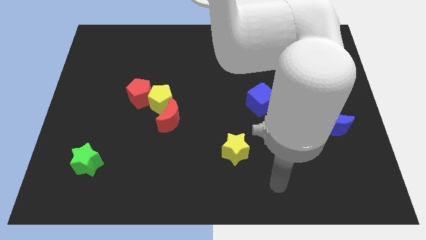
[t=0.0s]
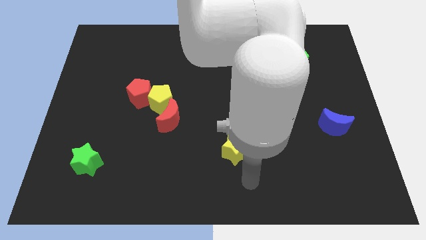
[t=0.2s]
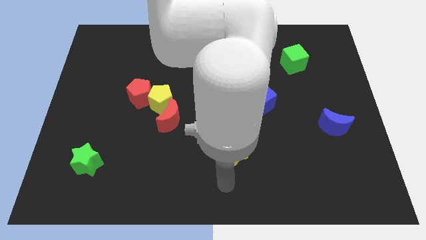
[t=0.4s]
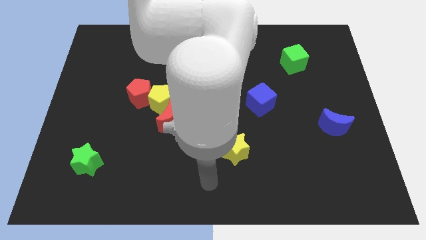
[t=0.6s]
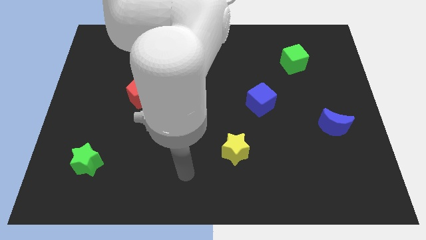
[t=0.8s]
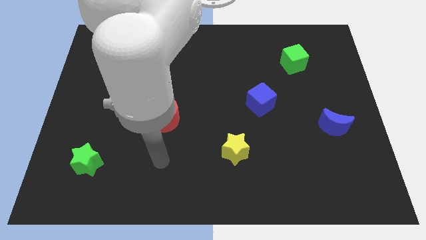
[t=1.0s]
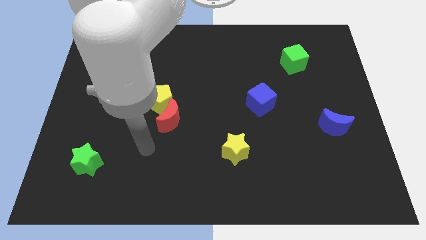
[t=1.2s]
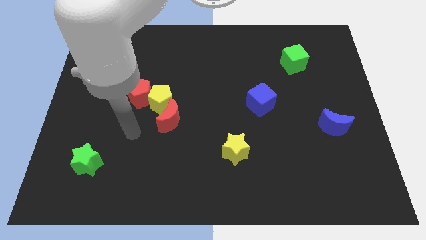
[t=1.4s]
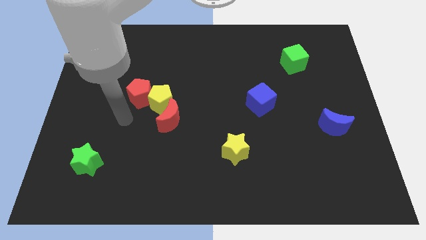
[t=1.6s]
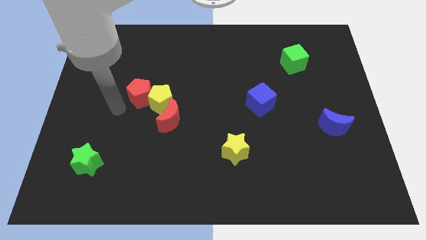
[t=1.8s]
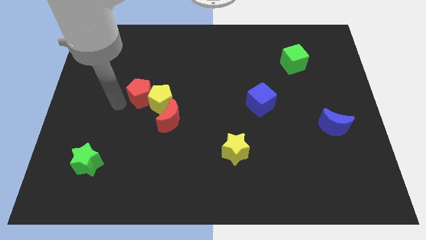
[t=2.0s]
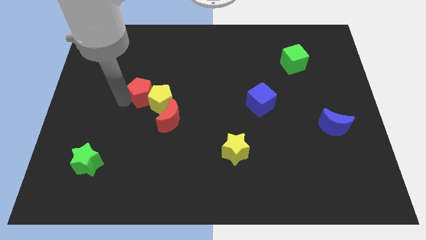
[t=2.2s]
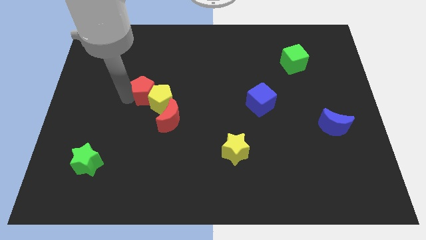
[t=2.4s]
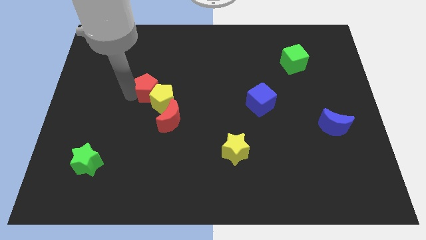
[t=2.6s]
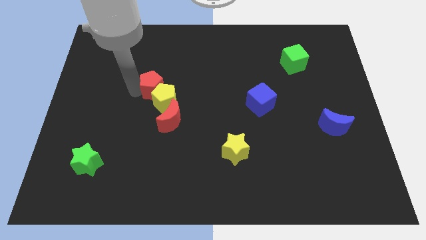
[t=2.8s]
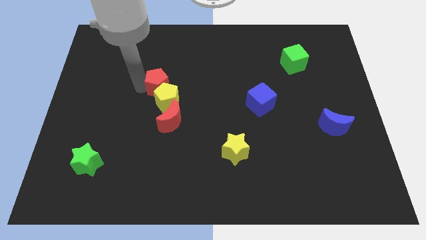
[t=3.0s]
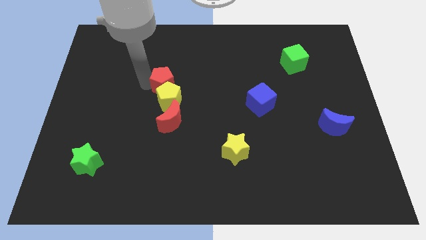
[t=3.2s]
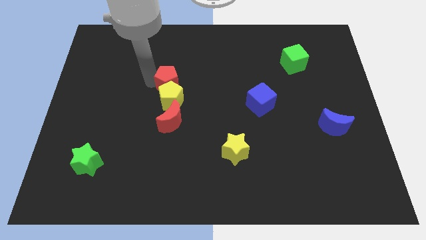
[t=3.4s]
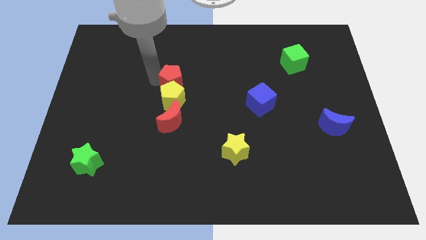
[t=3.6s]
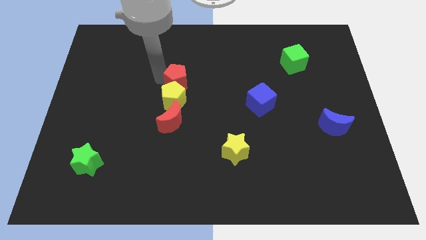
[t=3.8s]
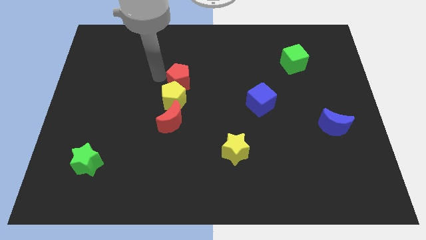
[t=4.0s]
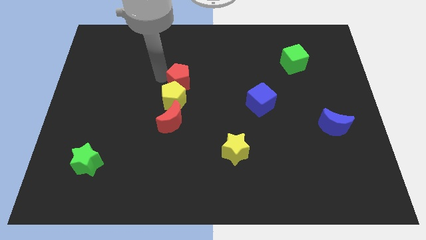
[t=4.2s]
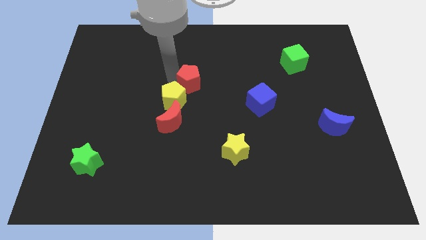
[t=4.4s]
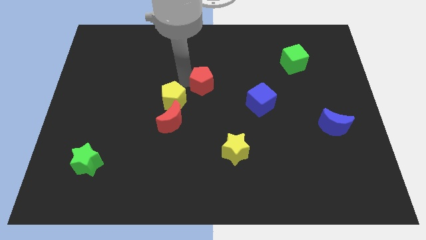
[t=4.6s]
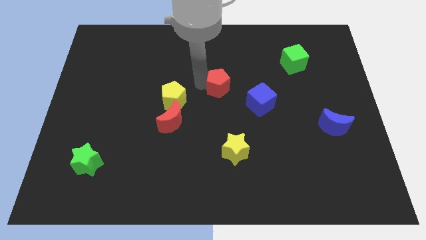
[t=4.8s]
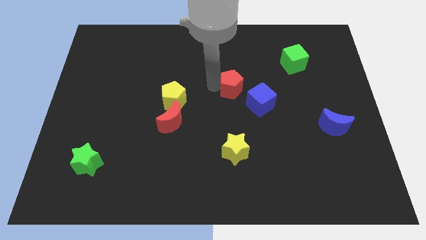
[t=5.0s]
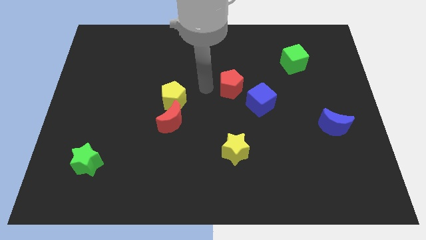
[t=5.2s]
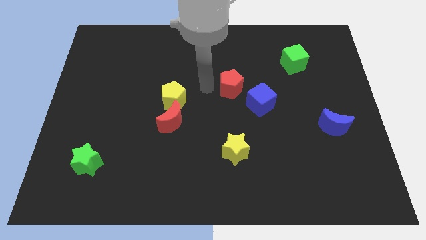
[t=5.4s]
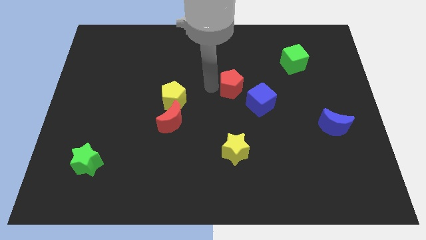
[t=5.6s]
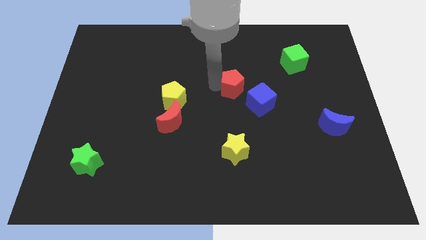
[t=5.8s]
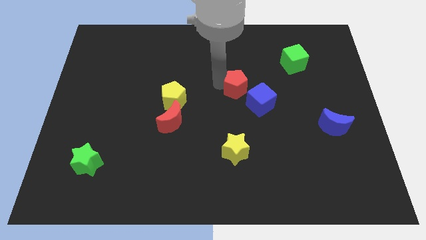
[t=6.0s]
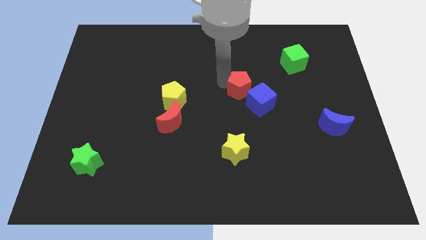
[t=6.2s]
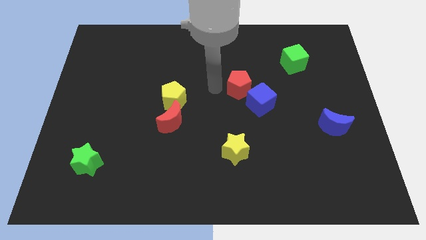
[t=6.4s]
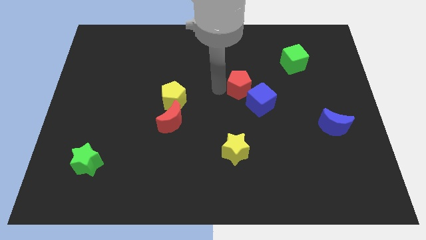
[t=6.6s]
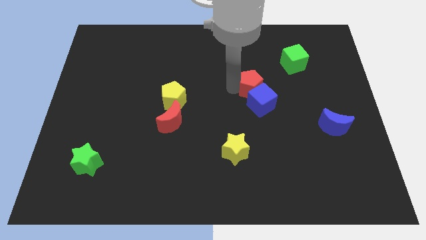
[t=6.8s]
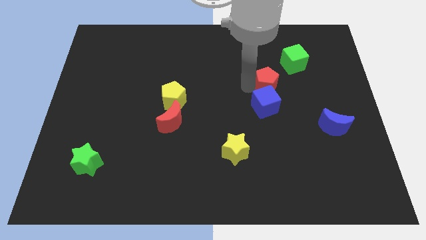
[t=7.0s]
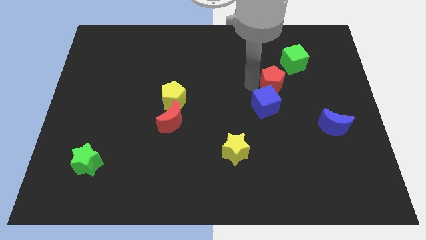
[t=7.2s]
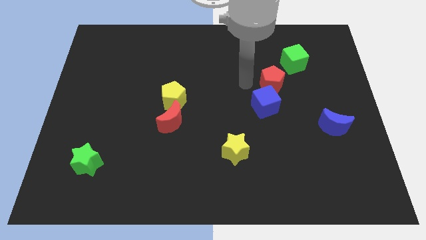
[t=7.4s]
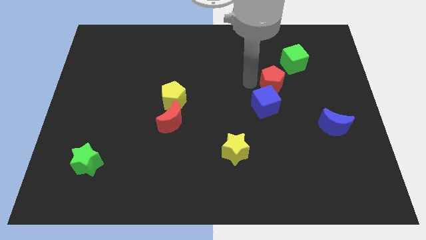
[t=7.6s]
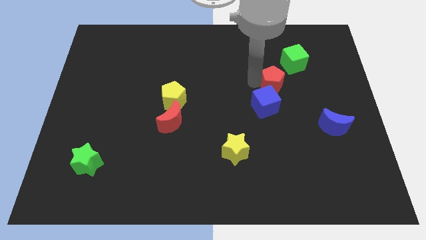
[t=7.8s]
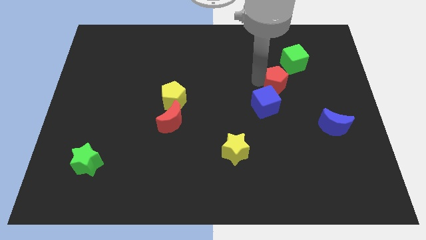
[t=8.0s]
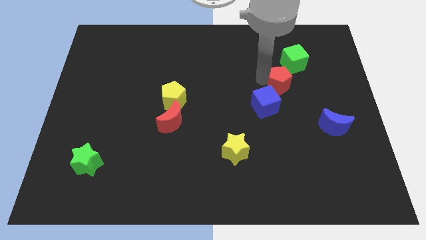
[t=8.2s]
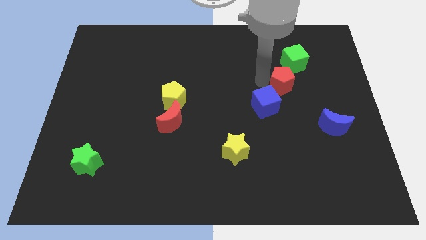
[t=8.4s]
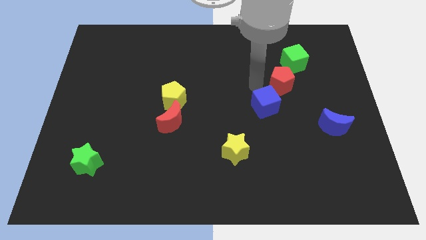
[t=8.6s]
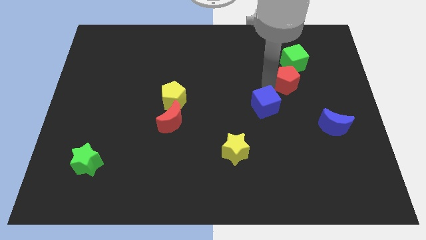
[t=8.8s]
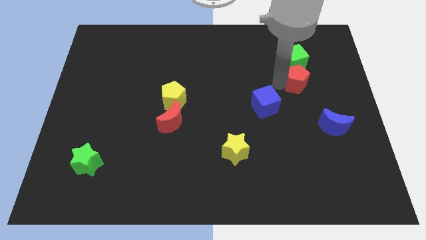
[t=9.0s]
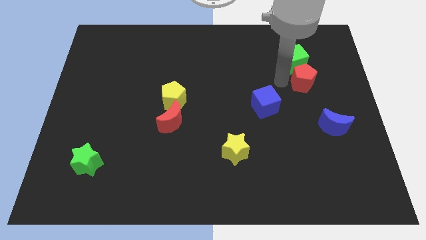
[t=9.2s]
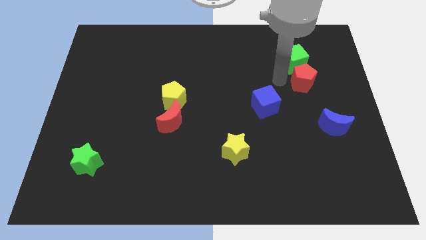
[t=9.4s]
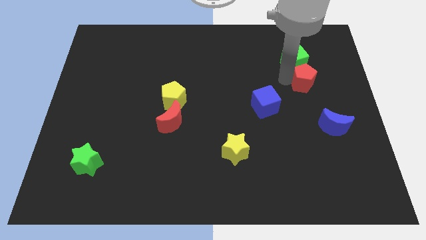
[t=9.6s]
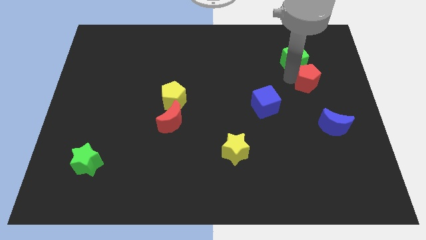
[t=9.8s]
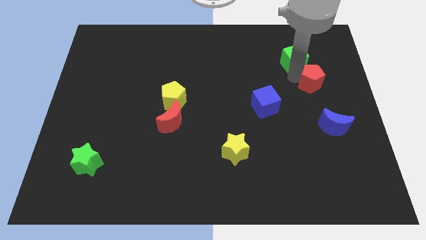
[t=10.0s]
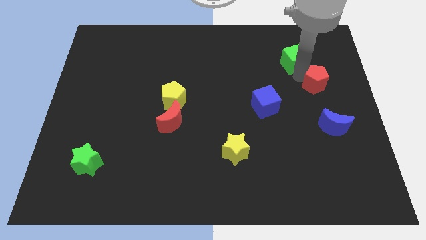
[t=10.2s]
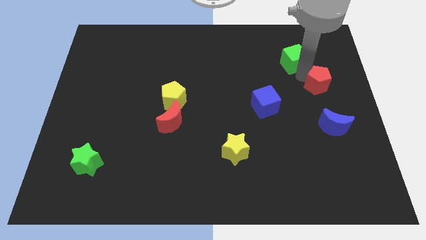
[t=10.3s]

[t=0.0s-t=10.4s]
put the red pentagon to the right side
